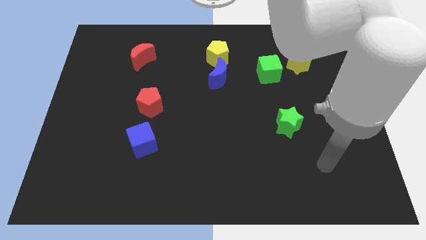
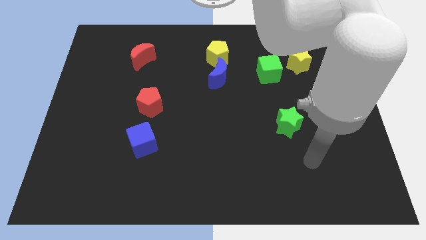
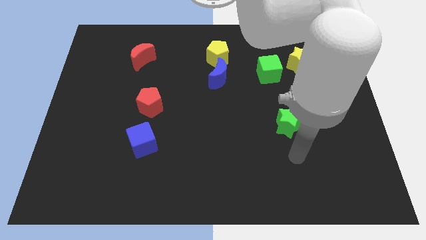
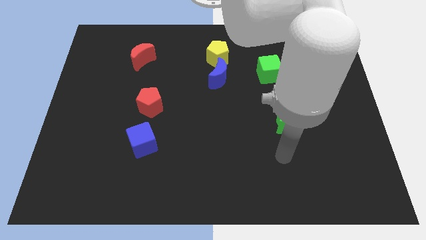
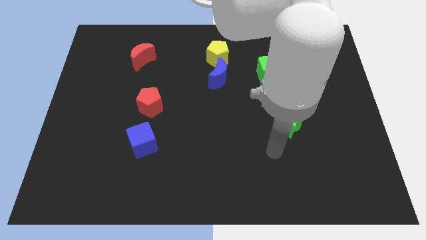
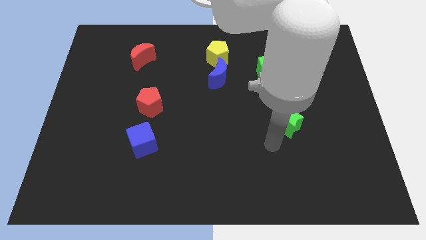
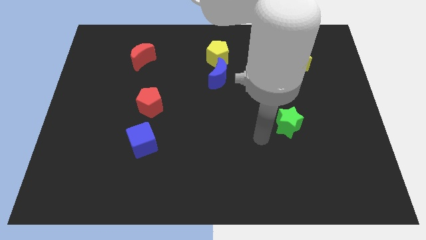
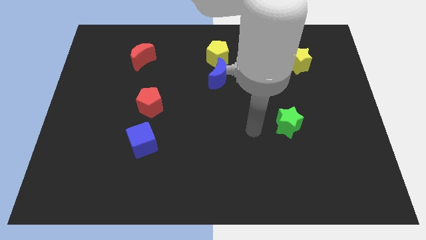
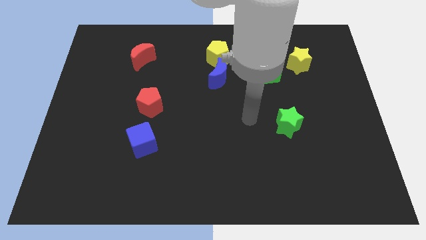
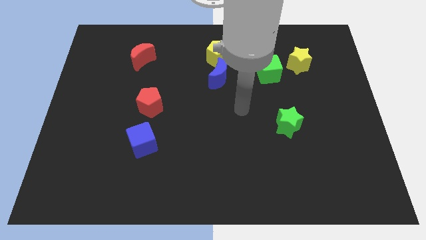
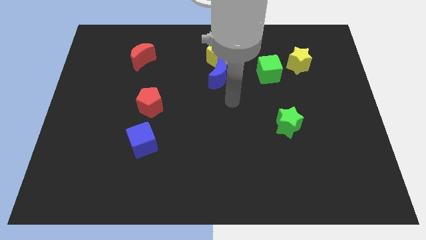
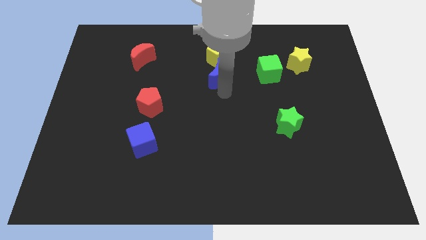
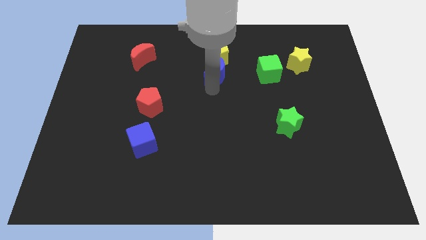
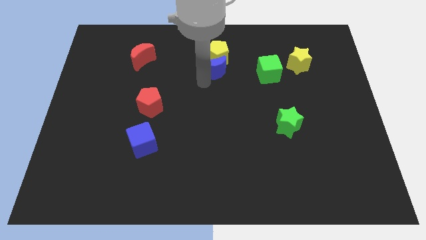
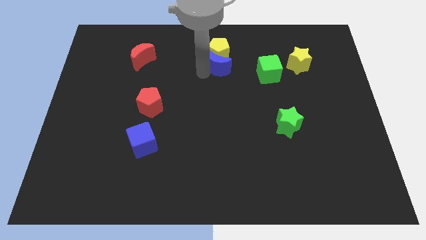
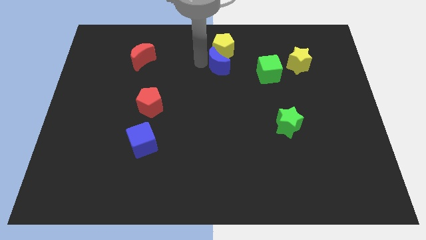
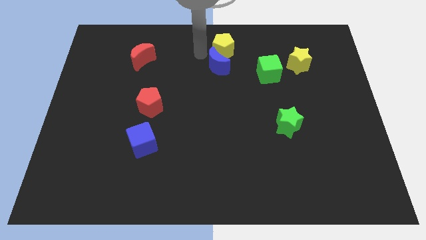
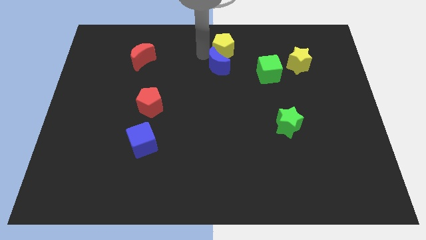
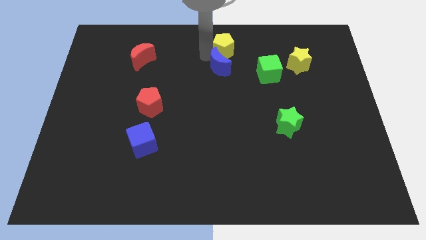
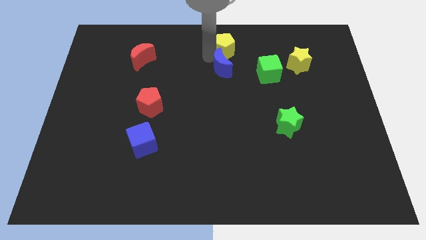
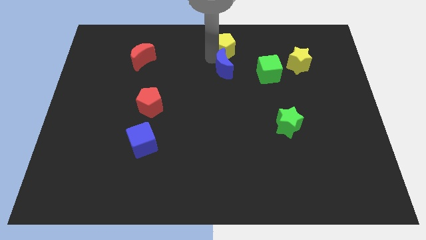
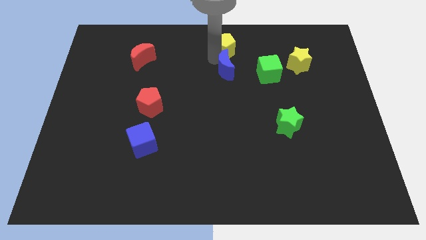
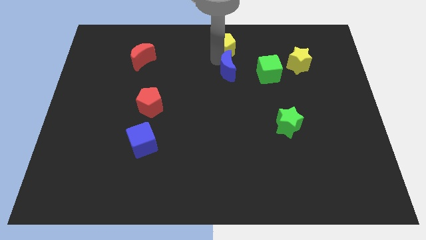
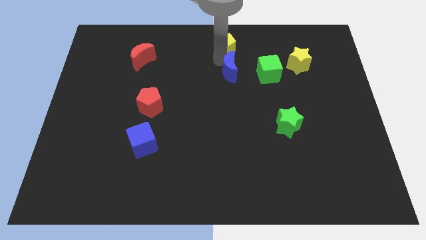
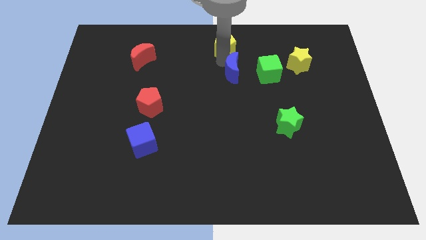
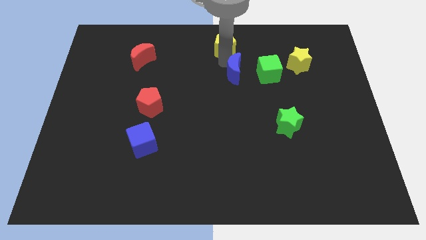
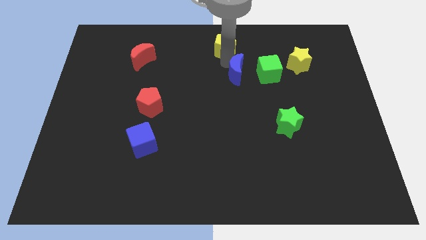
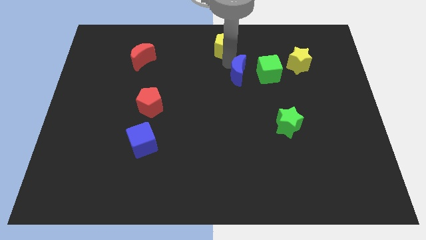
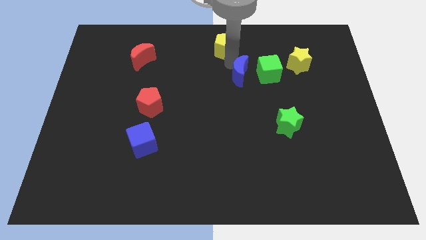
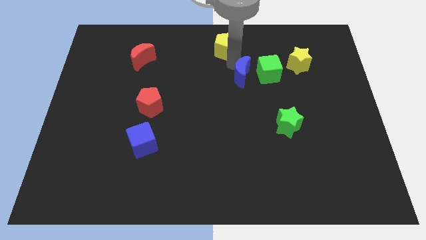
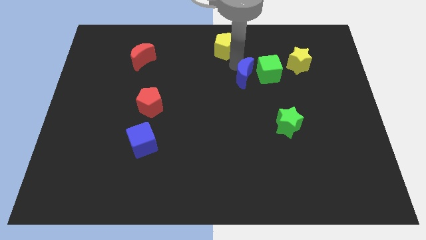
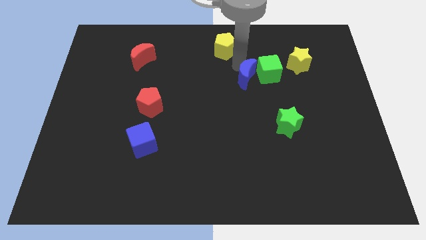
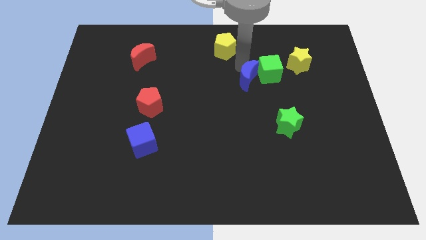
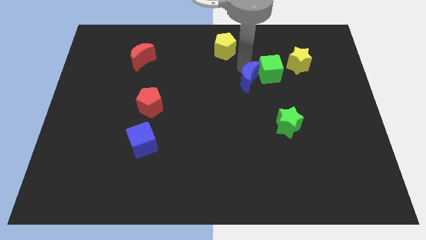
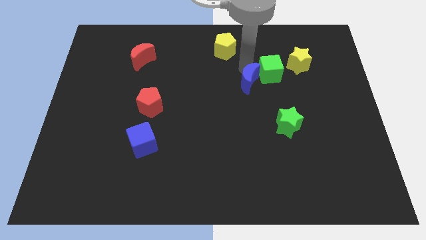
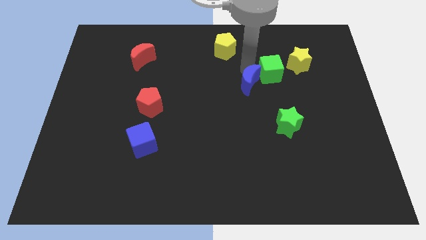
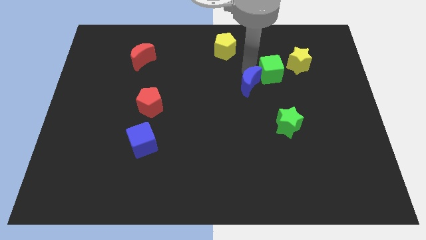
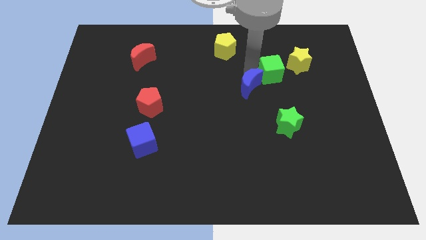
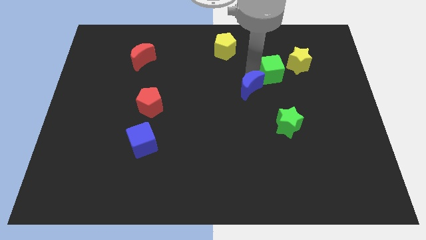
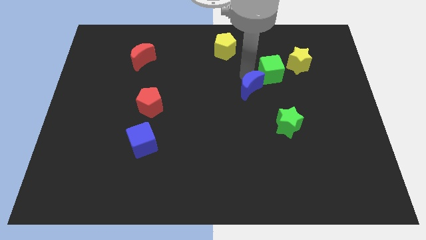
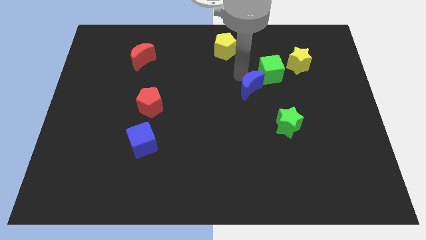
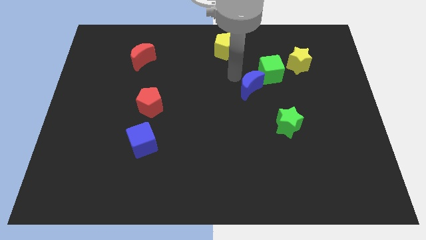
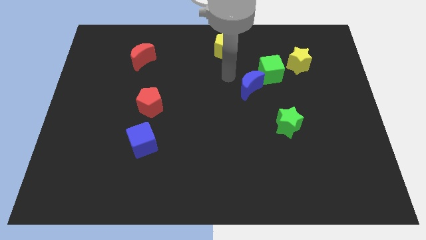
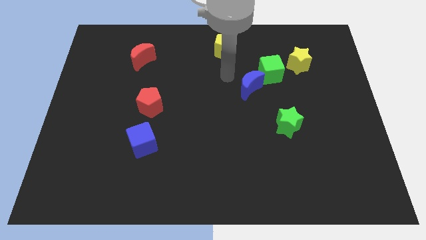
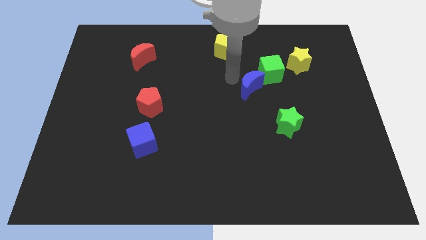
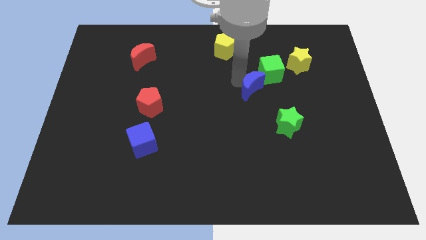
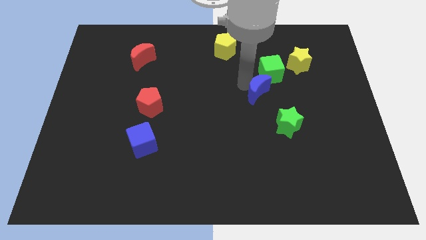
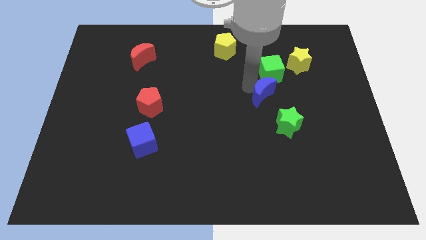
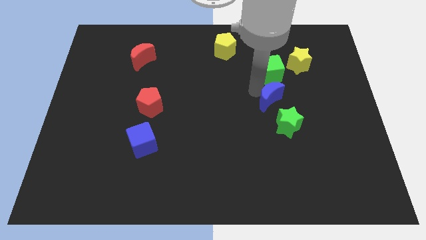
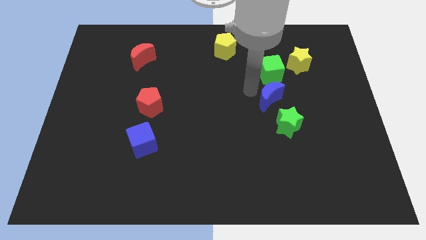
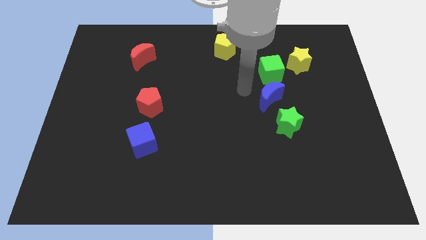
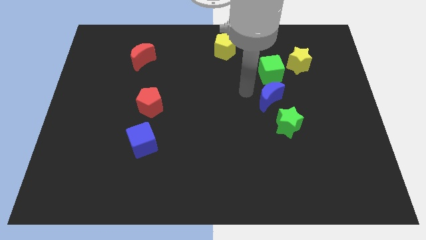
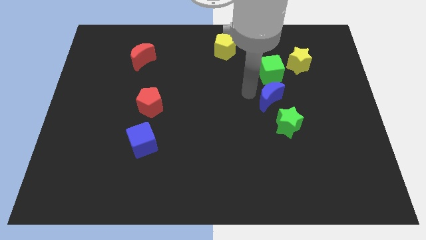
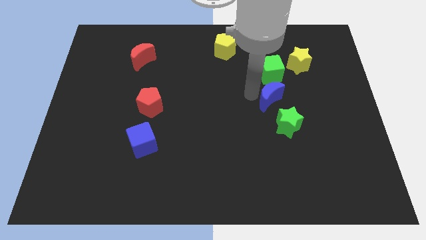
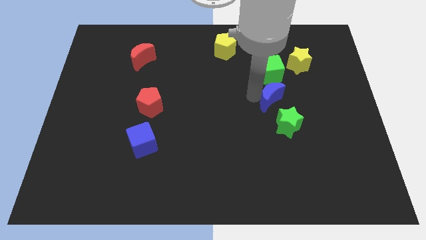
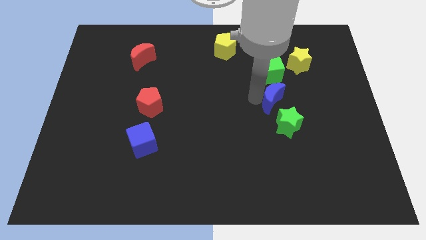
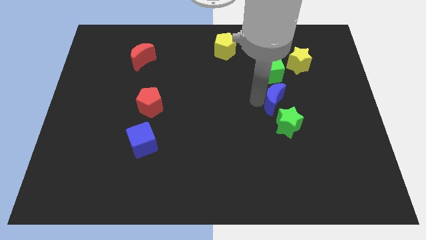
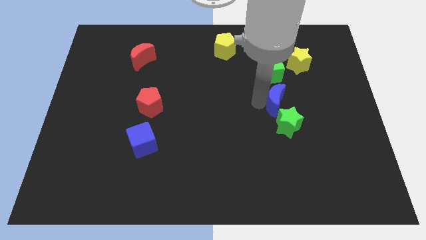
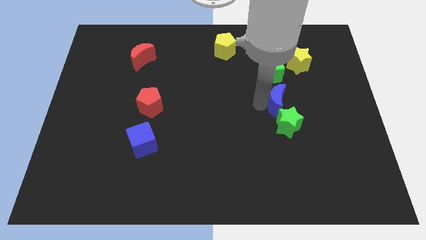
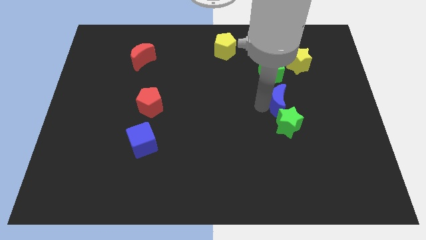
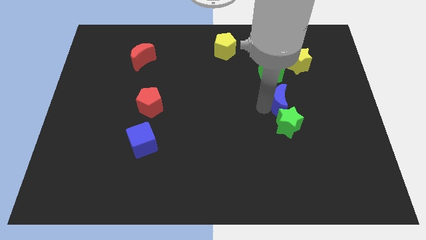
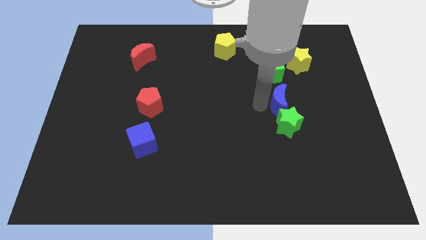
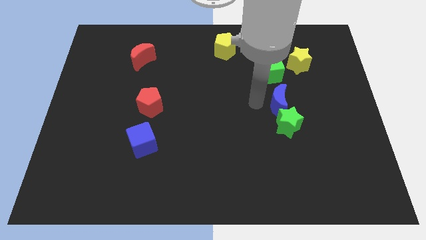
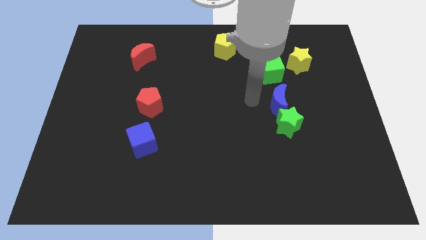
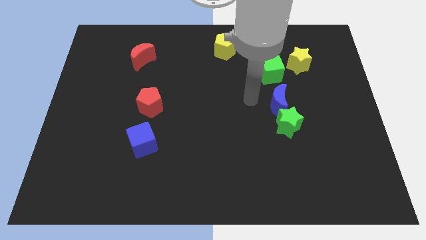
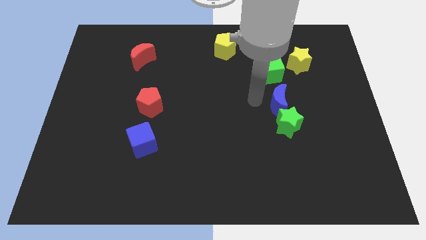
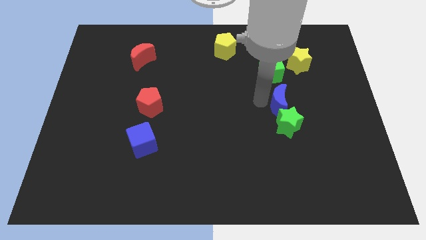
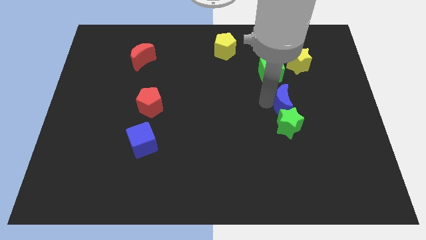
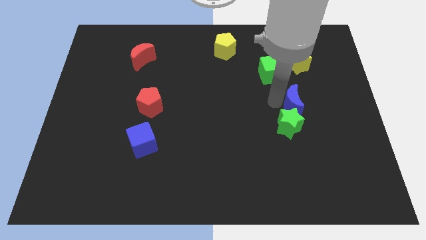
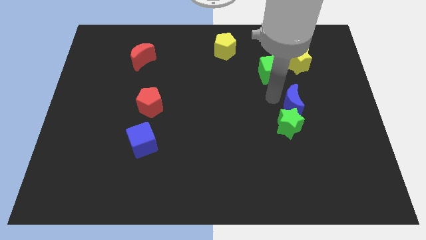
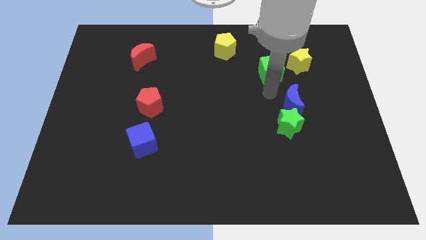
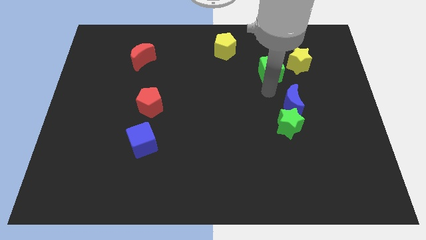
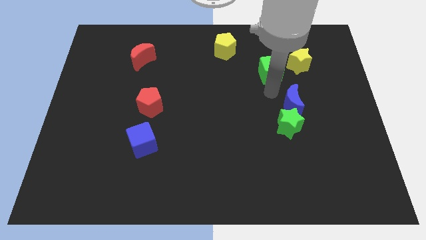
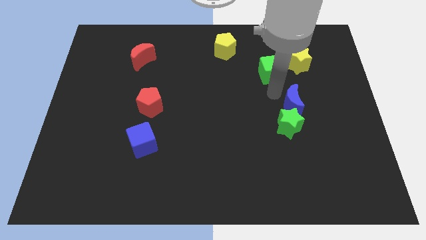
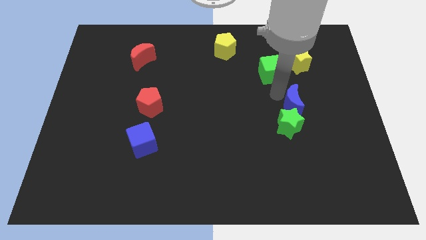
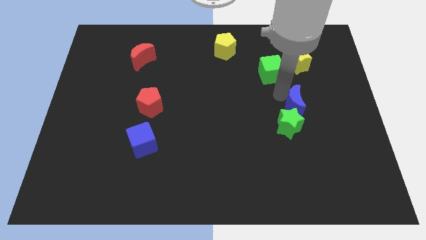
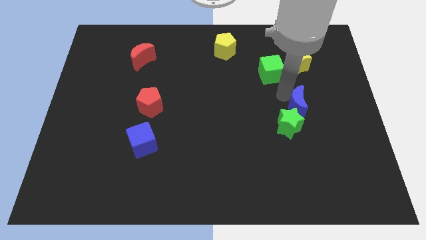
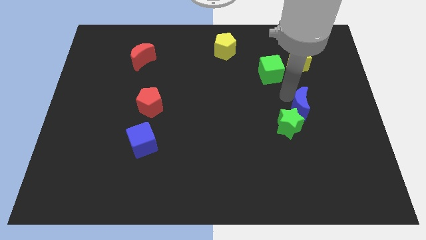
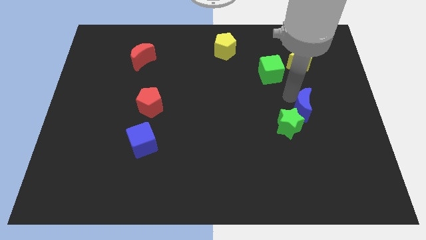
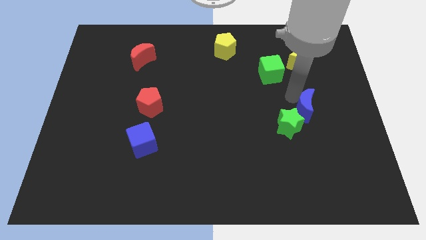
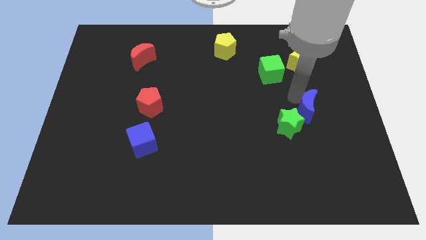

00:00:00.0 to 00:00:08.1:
put the blue moon right of the green star
